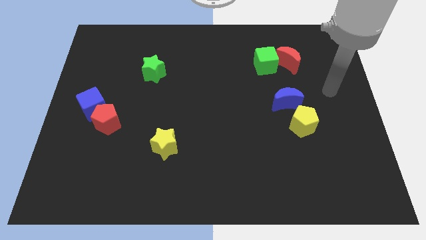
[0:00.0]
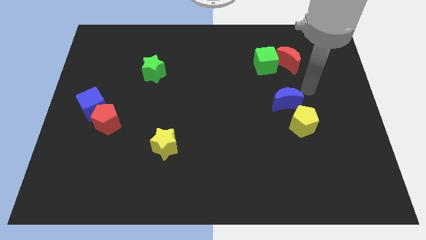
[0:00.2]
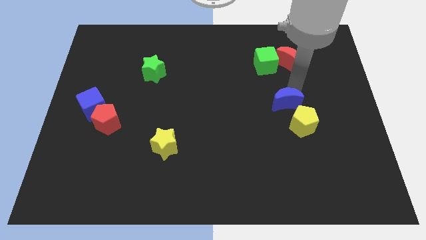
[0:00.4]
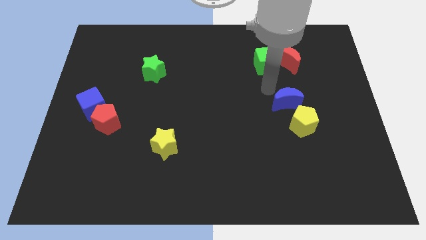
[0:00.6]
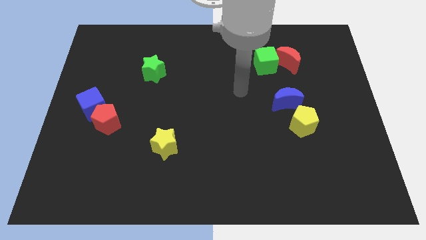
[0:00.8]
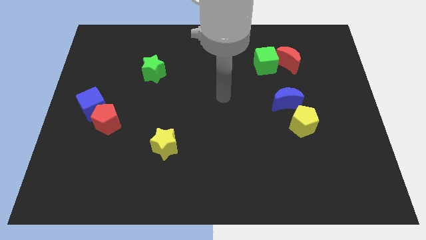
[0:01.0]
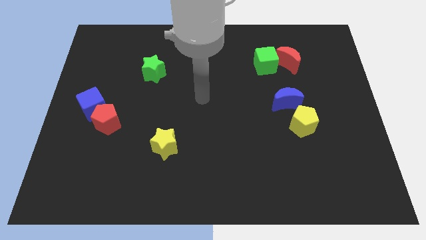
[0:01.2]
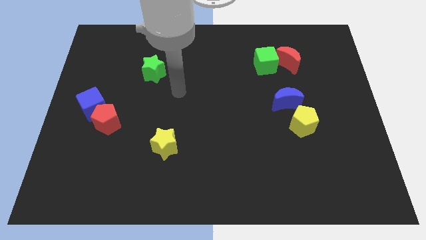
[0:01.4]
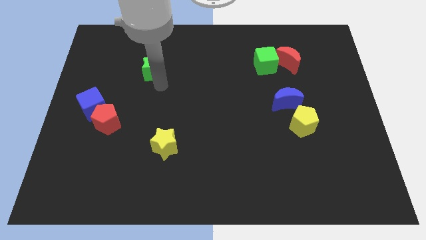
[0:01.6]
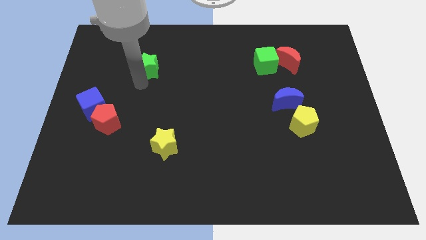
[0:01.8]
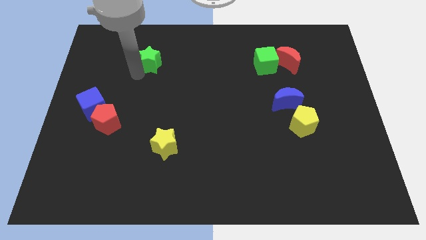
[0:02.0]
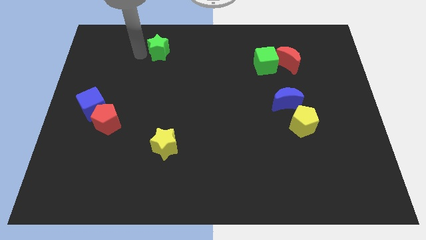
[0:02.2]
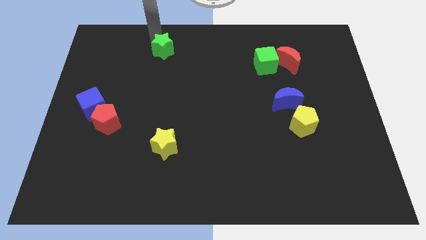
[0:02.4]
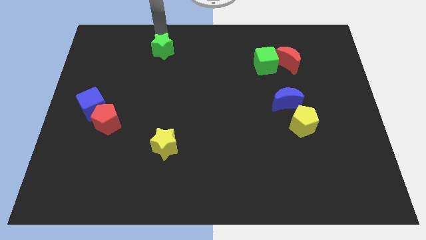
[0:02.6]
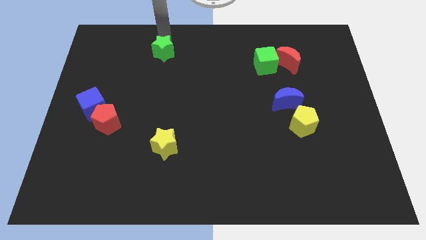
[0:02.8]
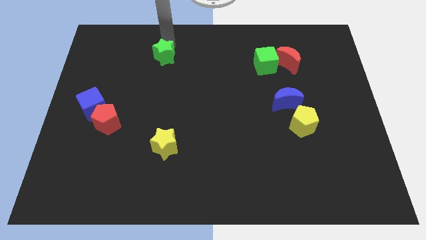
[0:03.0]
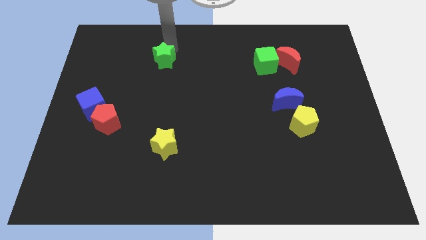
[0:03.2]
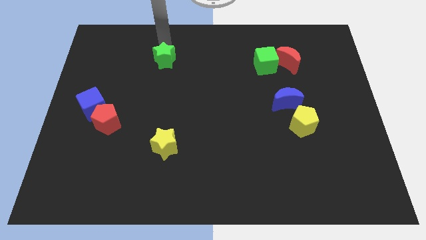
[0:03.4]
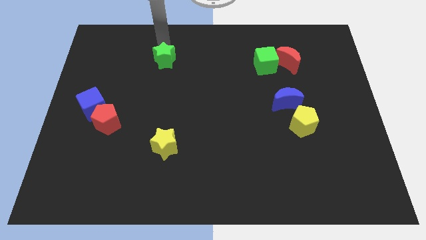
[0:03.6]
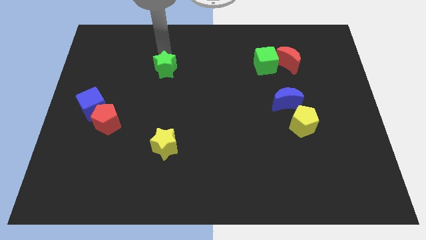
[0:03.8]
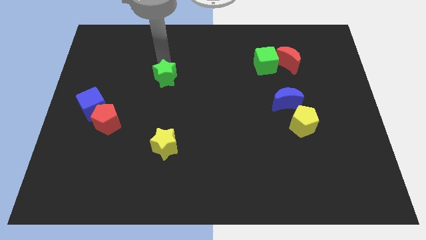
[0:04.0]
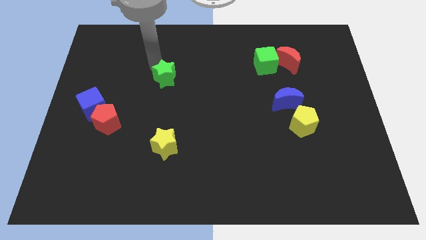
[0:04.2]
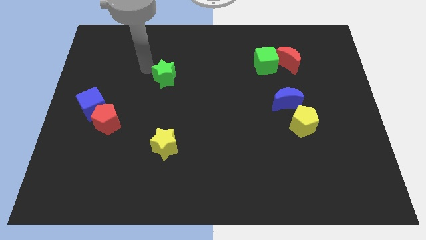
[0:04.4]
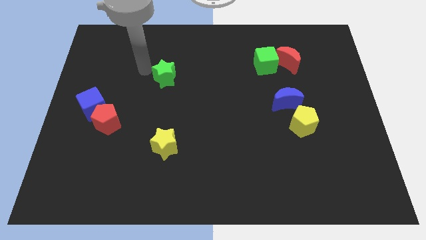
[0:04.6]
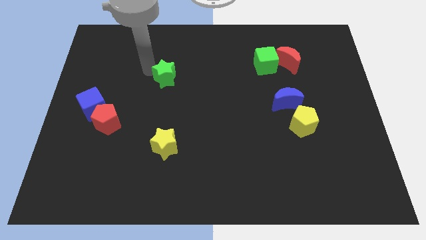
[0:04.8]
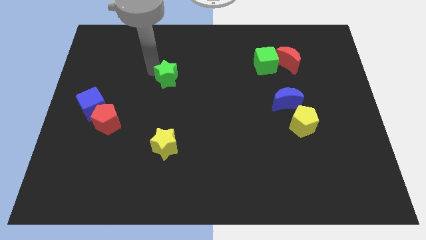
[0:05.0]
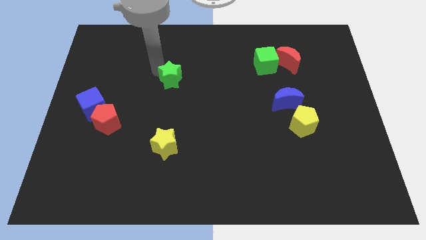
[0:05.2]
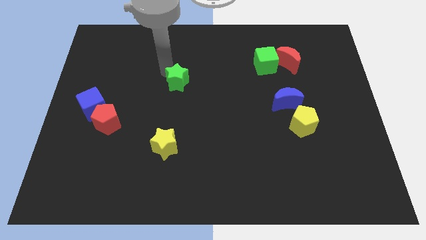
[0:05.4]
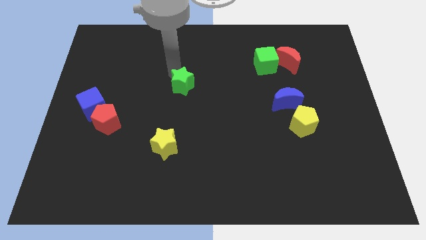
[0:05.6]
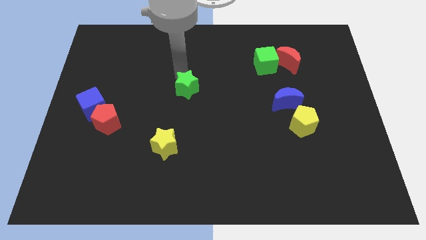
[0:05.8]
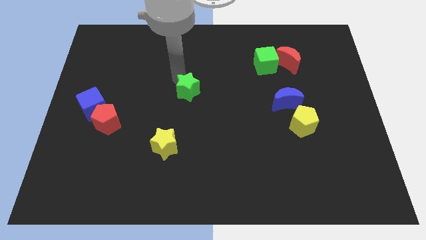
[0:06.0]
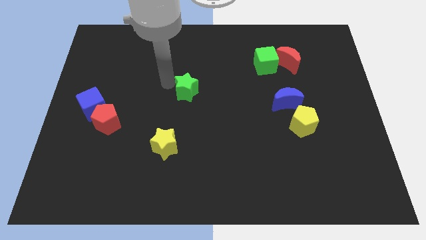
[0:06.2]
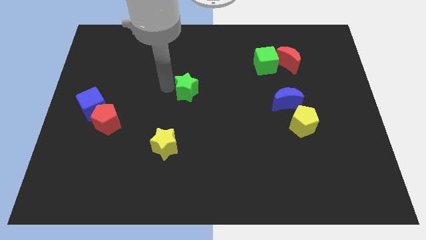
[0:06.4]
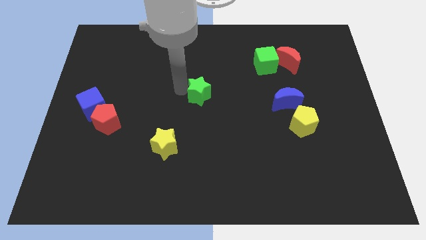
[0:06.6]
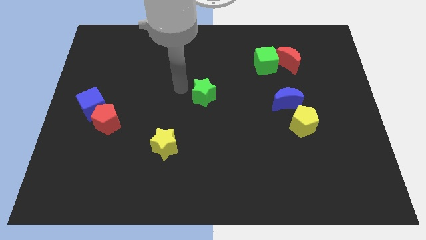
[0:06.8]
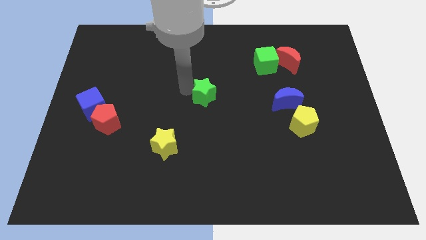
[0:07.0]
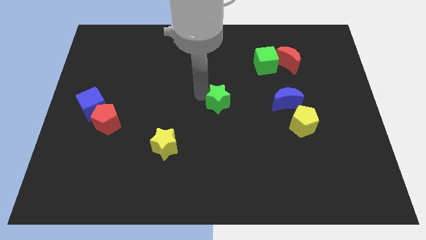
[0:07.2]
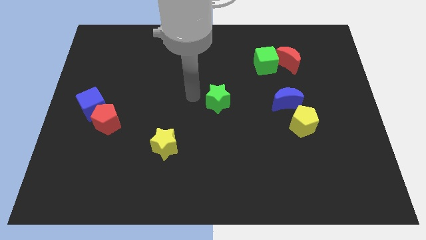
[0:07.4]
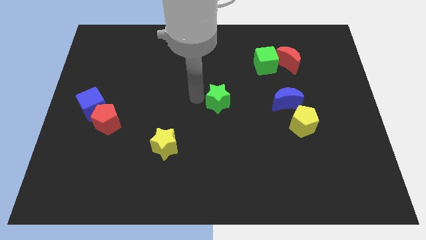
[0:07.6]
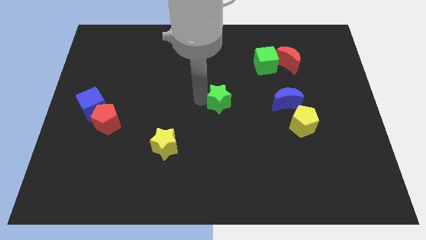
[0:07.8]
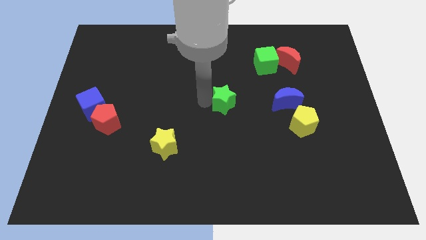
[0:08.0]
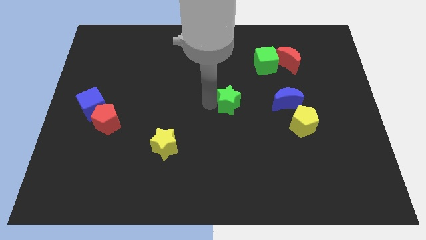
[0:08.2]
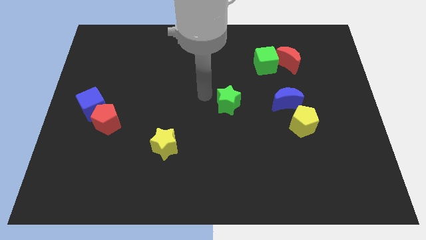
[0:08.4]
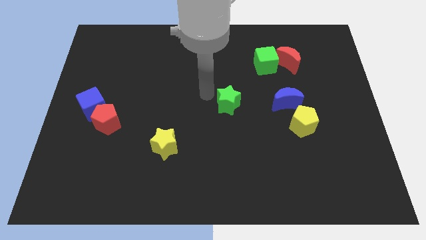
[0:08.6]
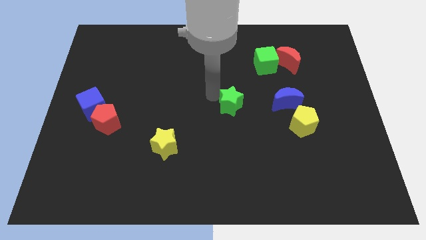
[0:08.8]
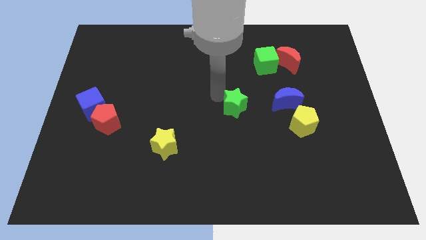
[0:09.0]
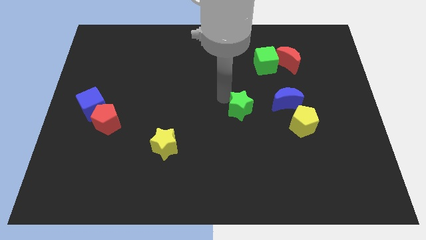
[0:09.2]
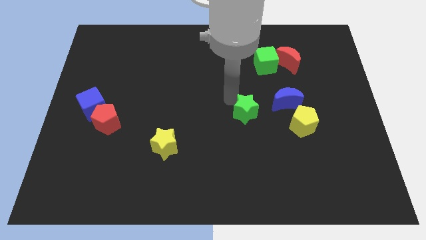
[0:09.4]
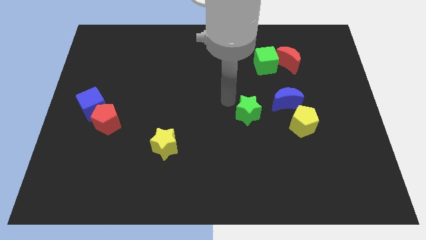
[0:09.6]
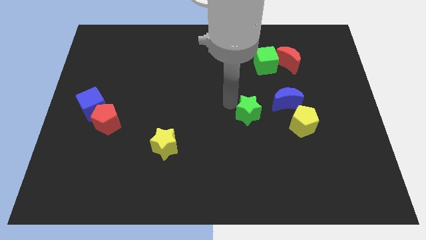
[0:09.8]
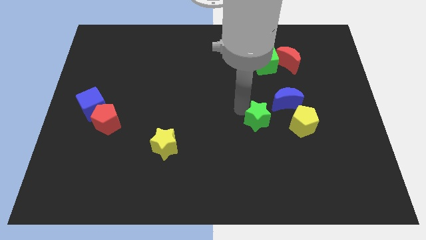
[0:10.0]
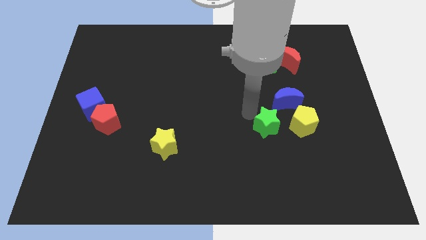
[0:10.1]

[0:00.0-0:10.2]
slide the green star below the blue moon

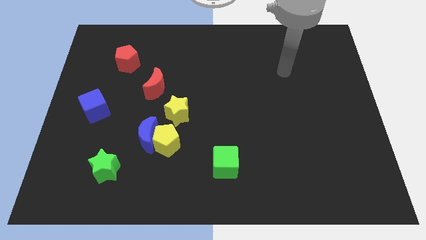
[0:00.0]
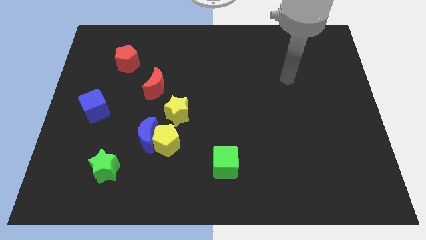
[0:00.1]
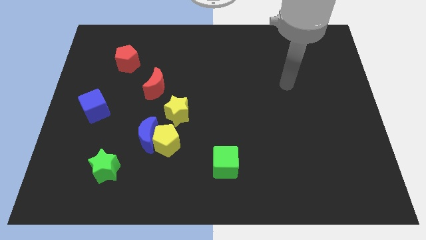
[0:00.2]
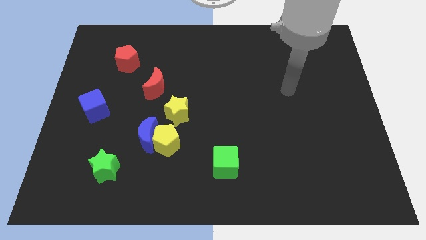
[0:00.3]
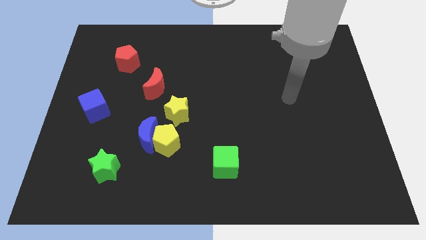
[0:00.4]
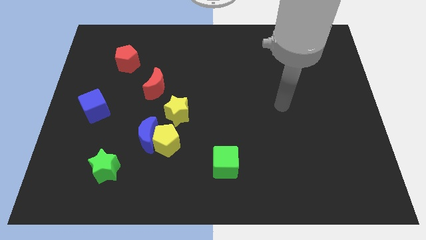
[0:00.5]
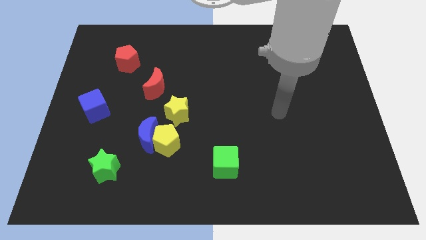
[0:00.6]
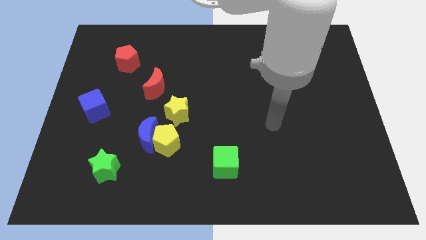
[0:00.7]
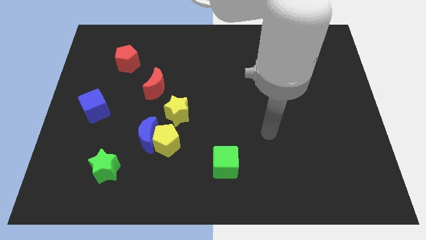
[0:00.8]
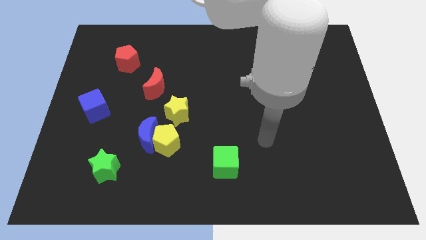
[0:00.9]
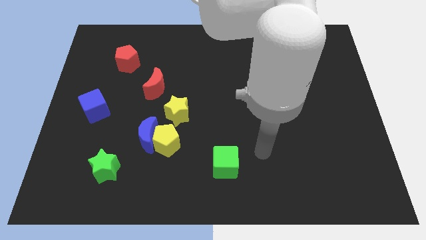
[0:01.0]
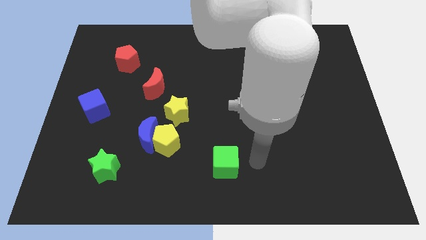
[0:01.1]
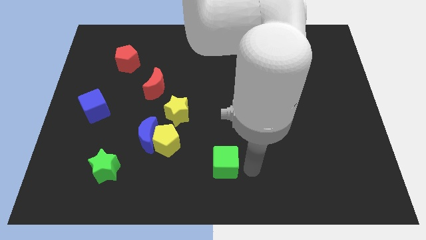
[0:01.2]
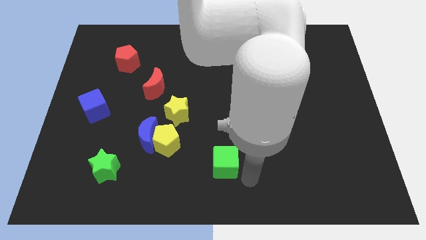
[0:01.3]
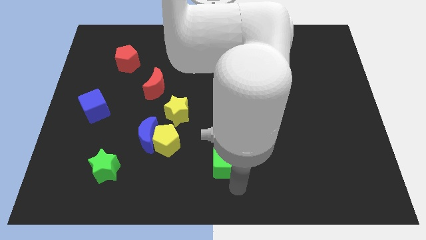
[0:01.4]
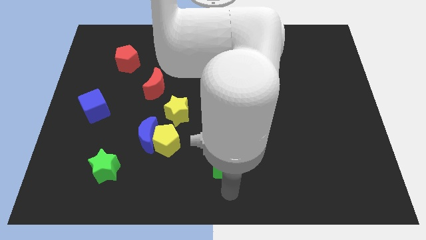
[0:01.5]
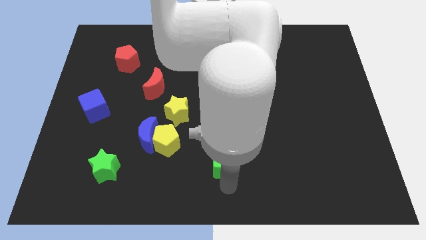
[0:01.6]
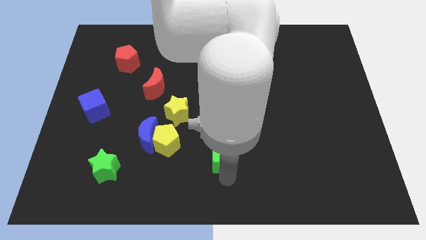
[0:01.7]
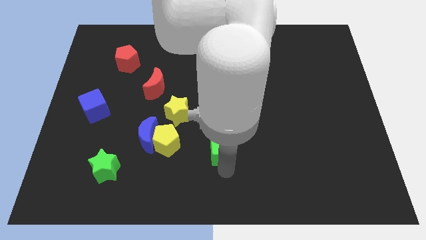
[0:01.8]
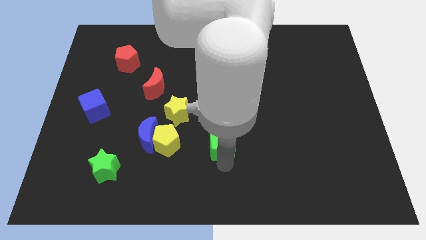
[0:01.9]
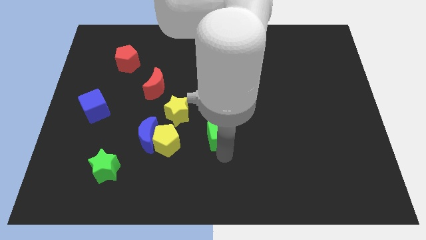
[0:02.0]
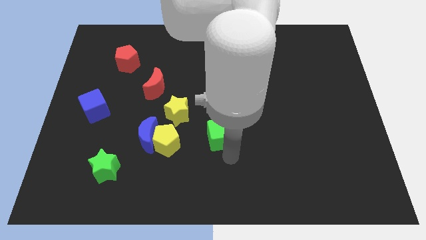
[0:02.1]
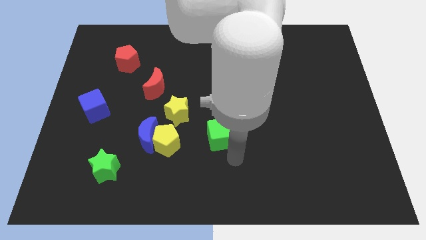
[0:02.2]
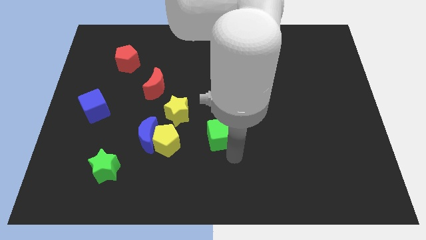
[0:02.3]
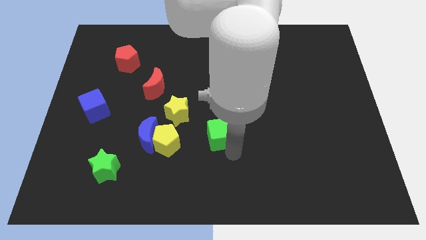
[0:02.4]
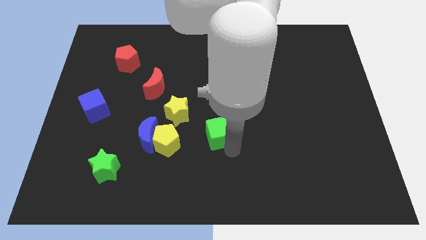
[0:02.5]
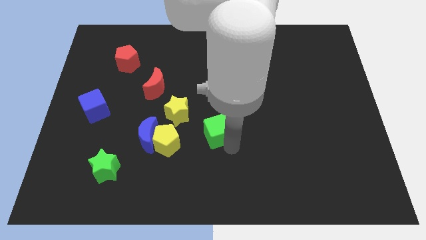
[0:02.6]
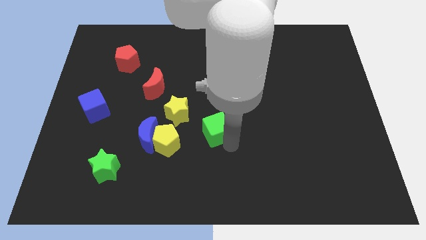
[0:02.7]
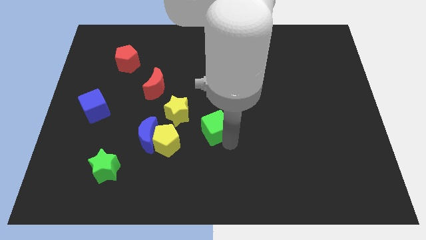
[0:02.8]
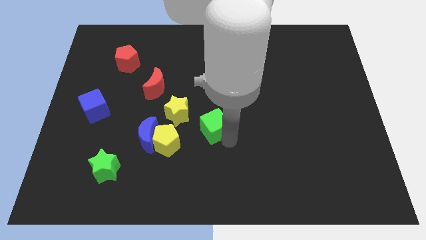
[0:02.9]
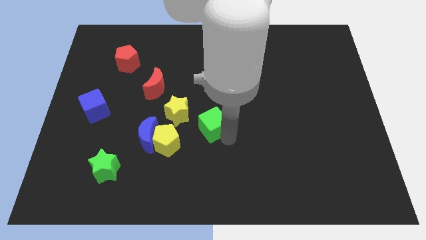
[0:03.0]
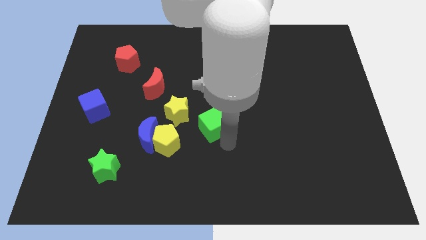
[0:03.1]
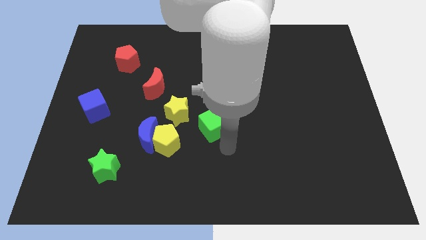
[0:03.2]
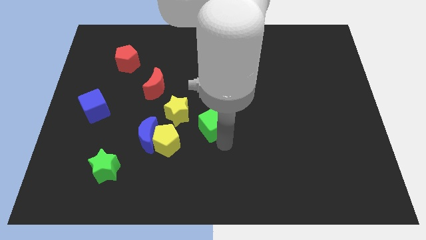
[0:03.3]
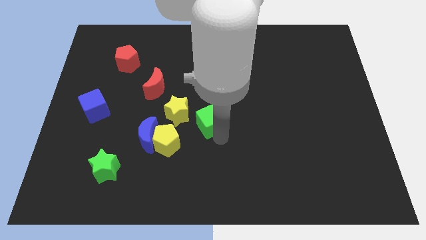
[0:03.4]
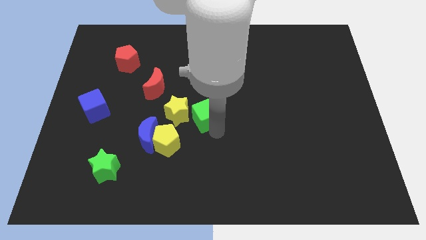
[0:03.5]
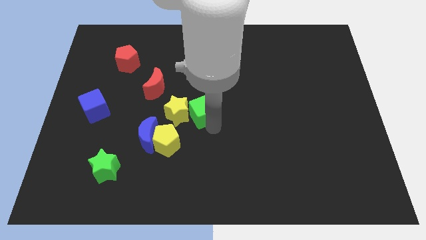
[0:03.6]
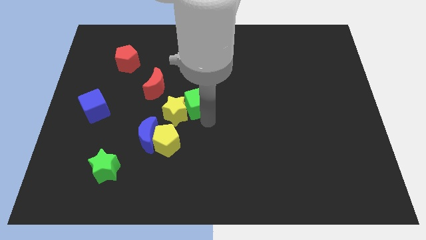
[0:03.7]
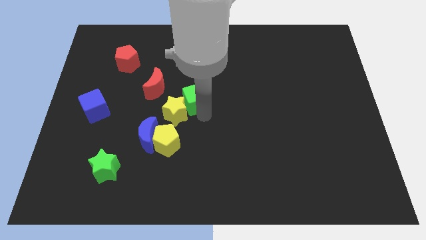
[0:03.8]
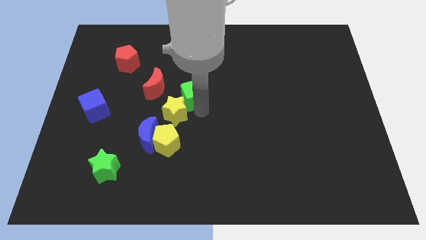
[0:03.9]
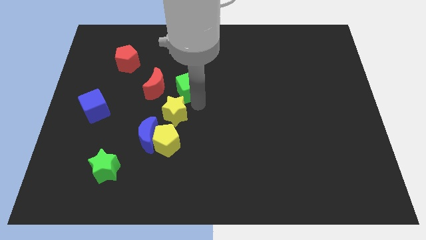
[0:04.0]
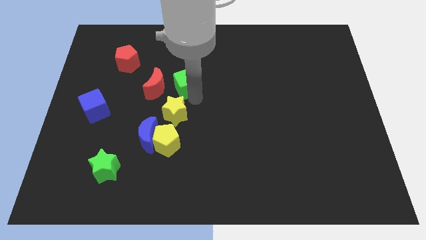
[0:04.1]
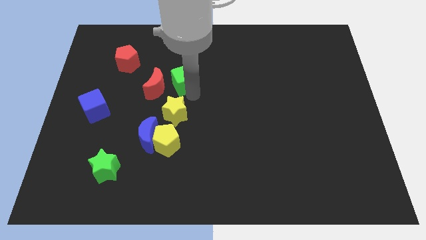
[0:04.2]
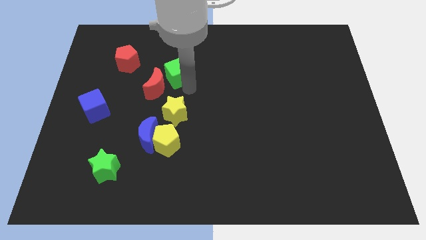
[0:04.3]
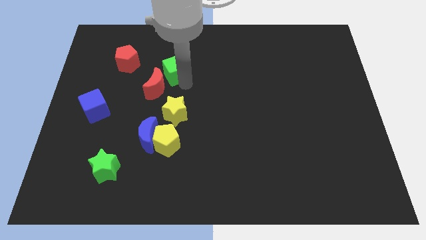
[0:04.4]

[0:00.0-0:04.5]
push the green cube to the right side of the red pentagon
